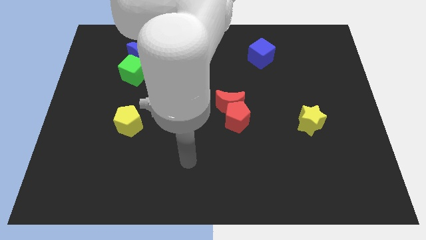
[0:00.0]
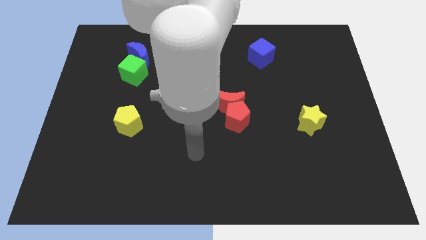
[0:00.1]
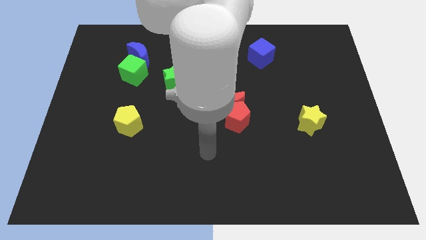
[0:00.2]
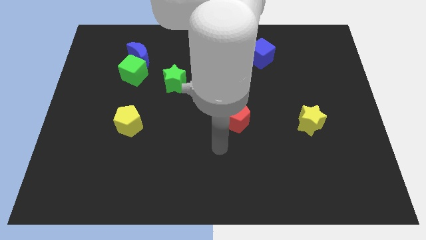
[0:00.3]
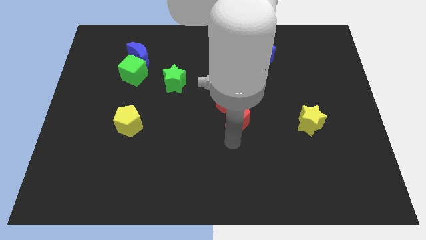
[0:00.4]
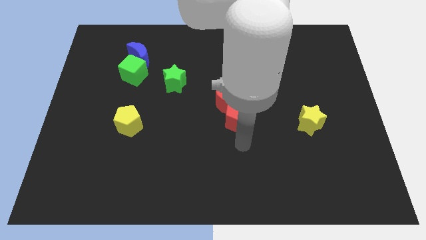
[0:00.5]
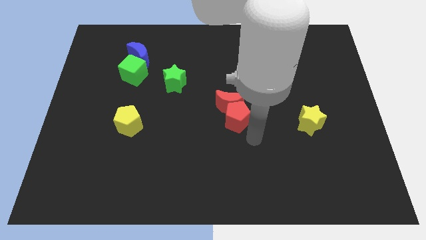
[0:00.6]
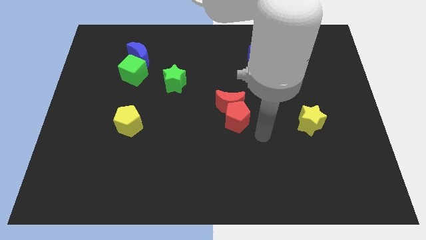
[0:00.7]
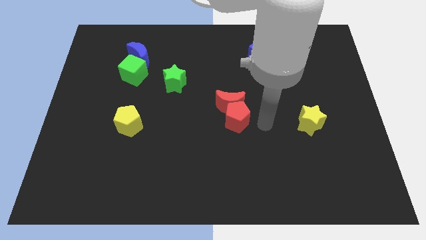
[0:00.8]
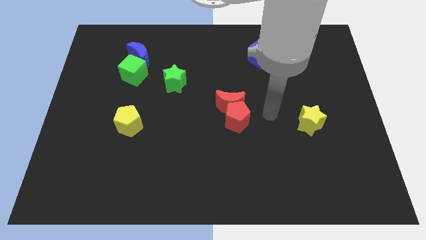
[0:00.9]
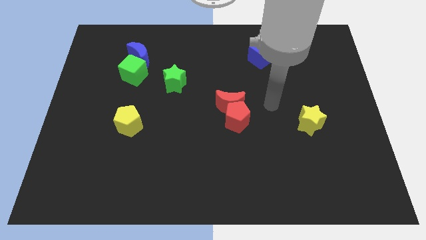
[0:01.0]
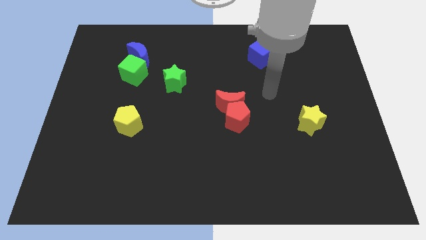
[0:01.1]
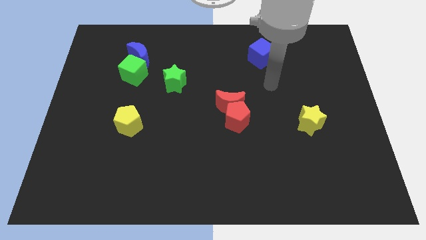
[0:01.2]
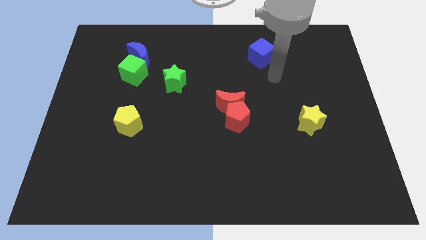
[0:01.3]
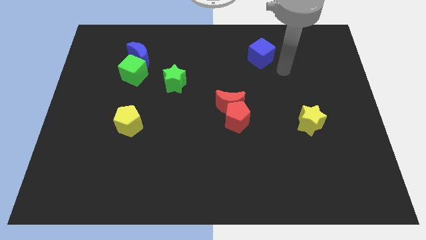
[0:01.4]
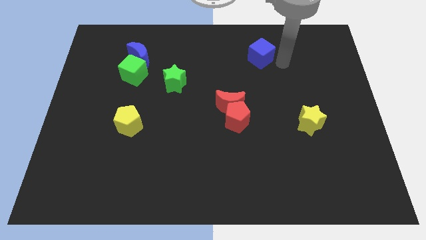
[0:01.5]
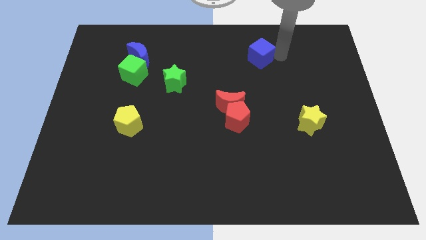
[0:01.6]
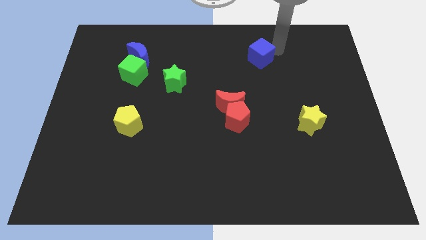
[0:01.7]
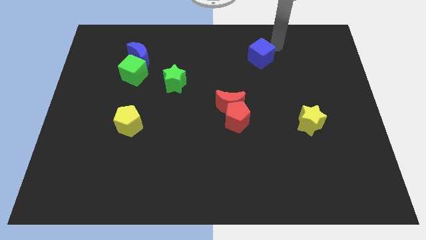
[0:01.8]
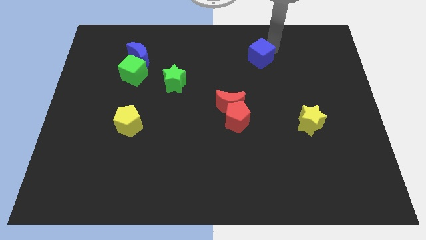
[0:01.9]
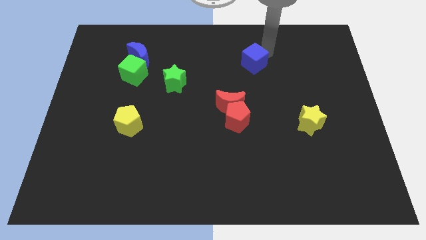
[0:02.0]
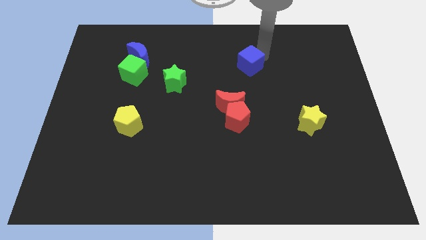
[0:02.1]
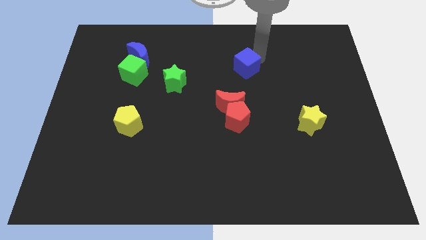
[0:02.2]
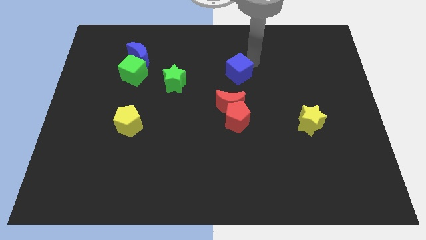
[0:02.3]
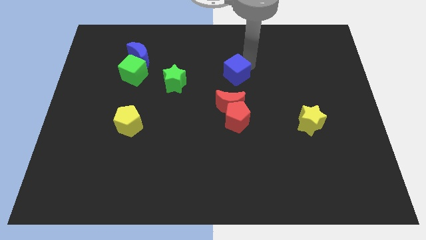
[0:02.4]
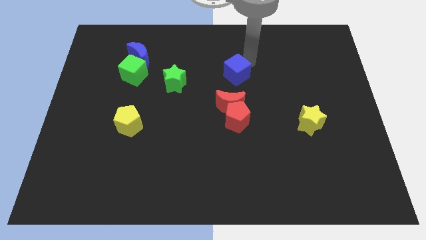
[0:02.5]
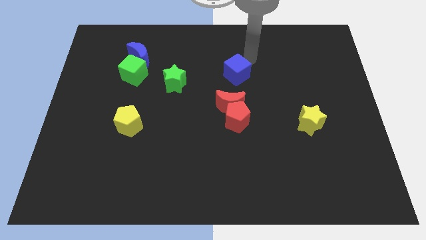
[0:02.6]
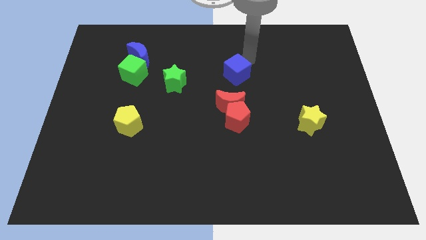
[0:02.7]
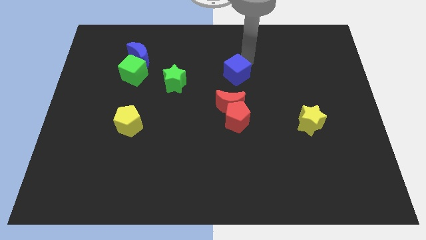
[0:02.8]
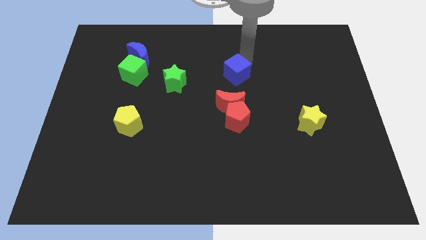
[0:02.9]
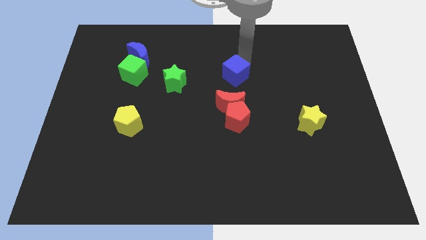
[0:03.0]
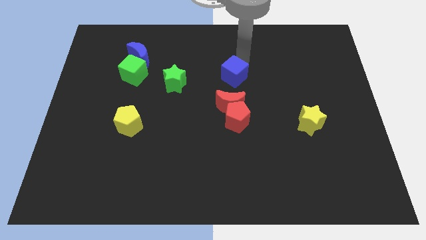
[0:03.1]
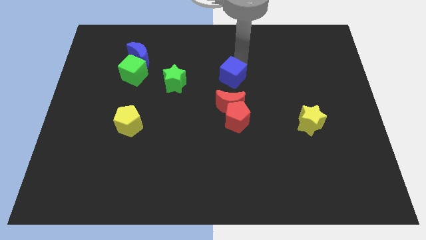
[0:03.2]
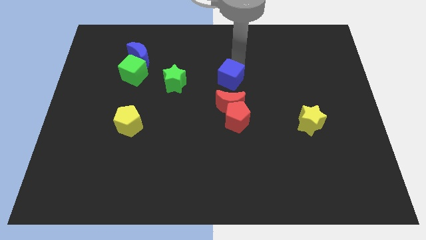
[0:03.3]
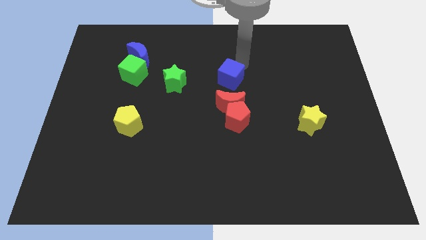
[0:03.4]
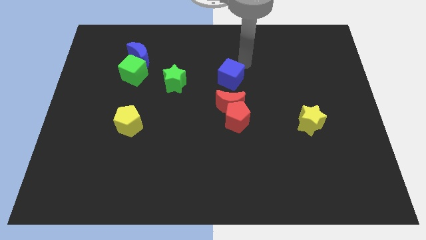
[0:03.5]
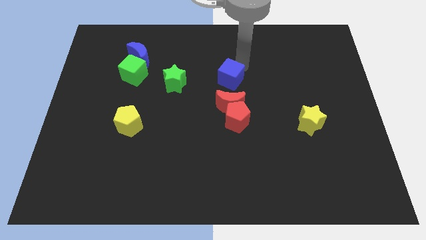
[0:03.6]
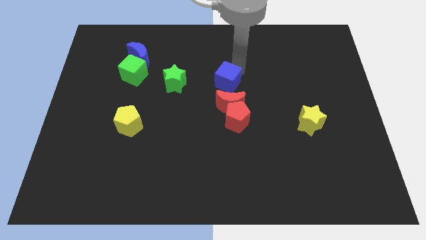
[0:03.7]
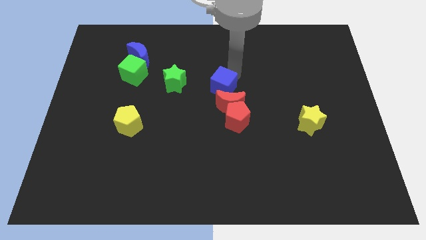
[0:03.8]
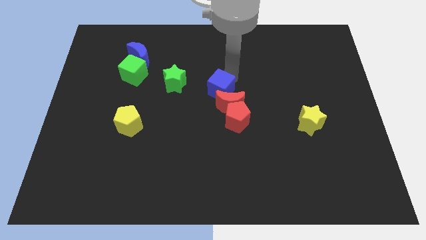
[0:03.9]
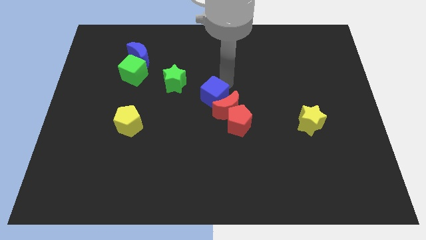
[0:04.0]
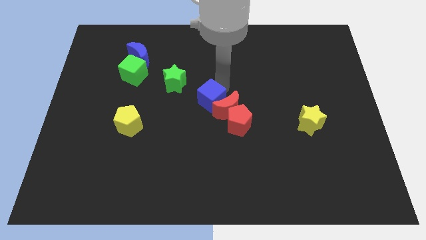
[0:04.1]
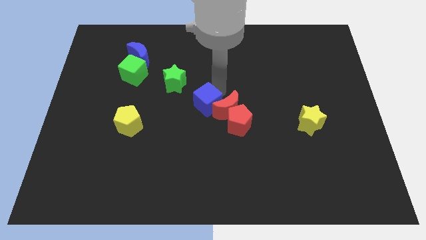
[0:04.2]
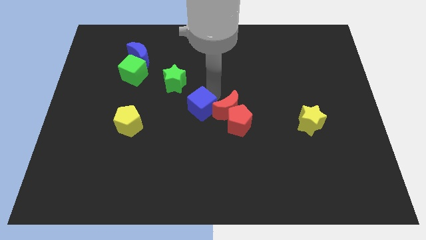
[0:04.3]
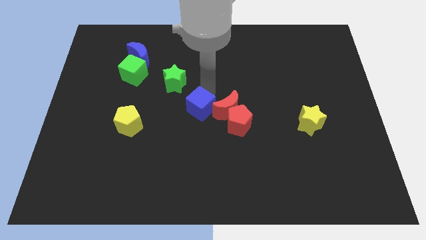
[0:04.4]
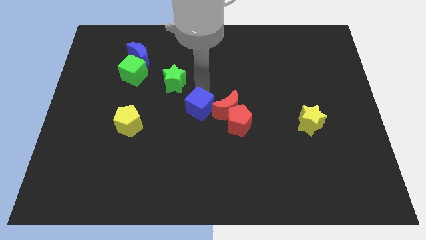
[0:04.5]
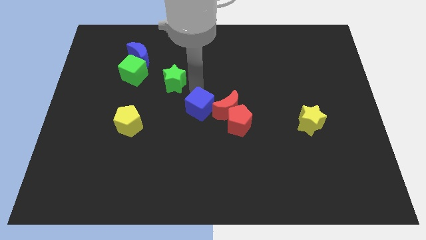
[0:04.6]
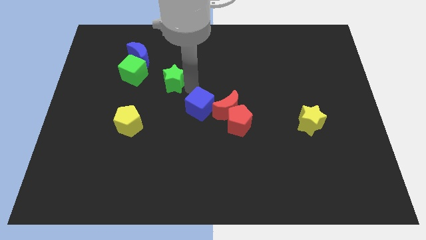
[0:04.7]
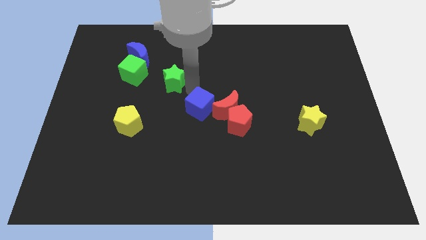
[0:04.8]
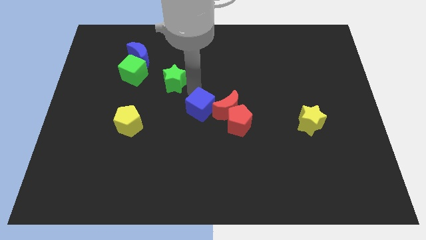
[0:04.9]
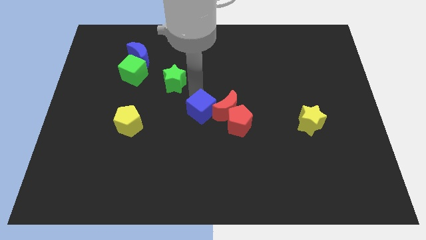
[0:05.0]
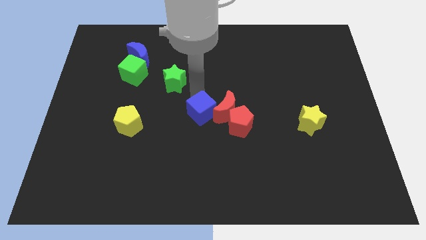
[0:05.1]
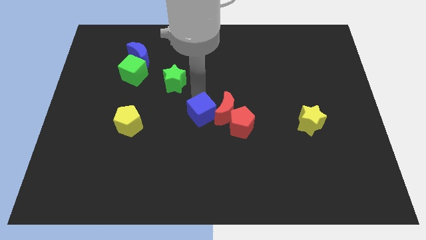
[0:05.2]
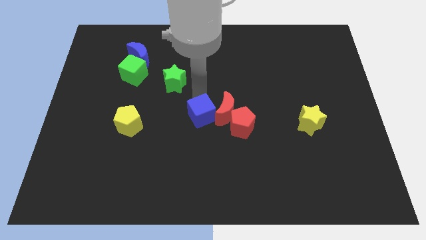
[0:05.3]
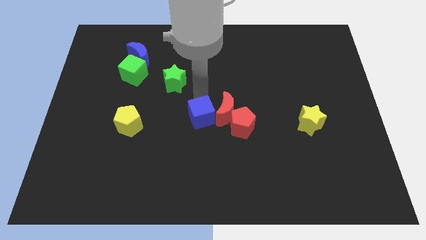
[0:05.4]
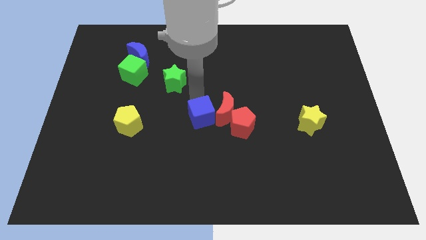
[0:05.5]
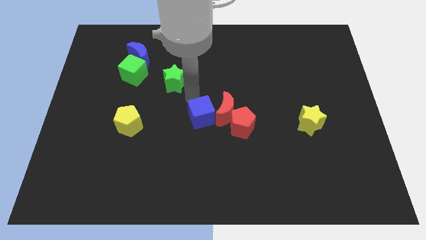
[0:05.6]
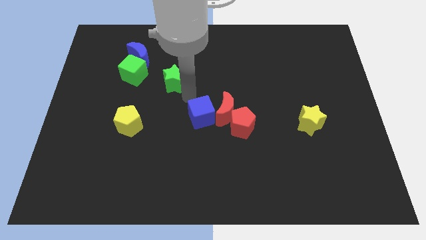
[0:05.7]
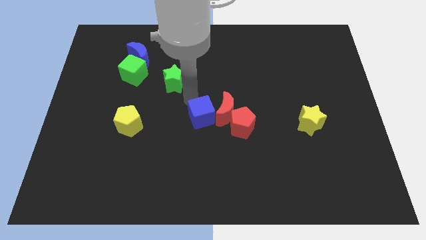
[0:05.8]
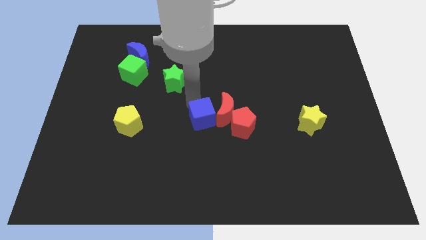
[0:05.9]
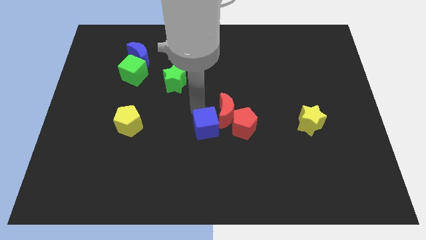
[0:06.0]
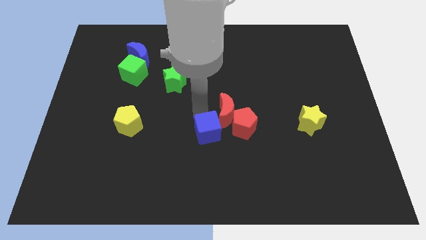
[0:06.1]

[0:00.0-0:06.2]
slide the blue cube to the bottom left of the red pentagon

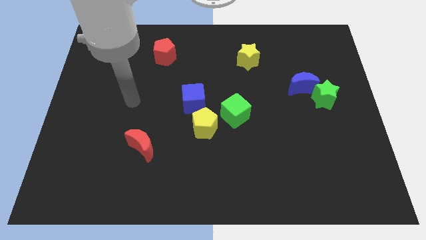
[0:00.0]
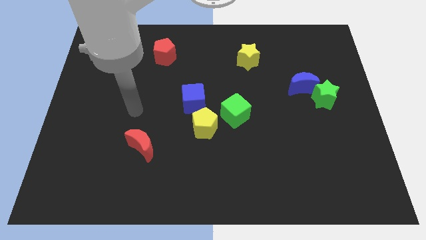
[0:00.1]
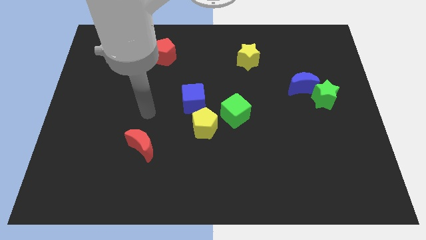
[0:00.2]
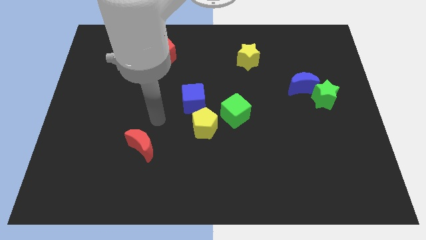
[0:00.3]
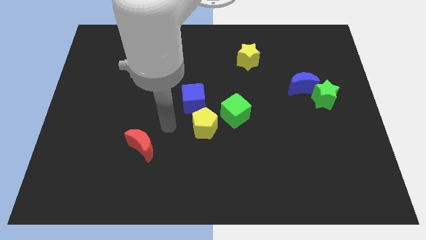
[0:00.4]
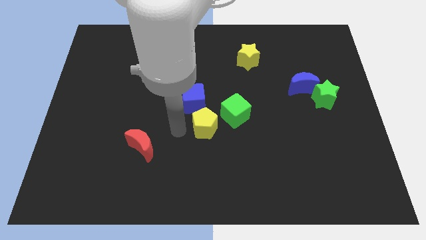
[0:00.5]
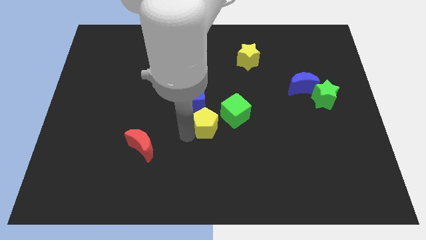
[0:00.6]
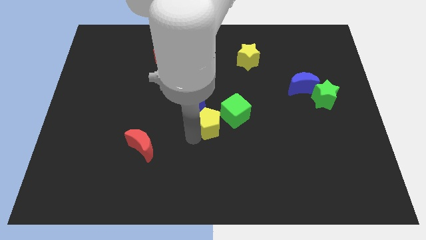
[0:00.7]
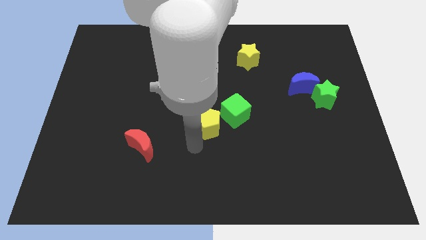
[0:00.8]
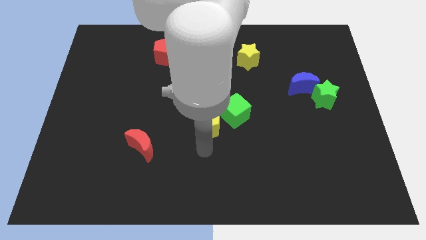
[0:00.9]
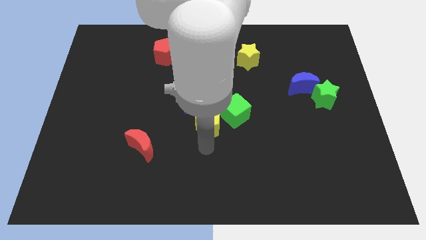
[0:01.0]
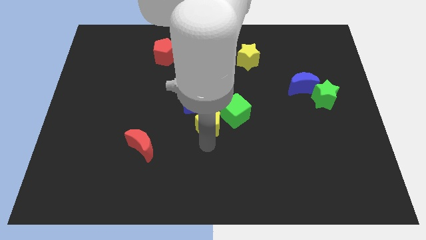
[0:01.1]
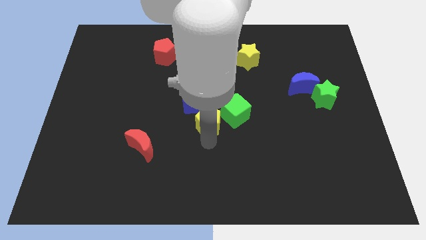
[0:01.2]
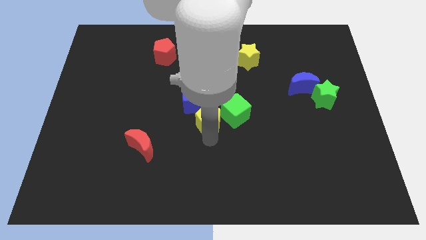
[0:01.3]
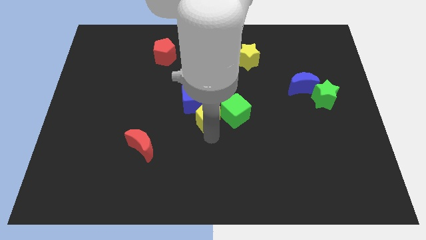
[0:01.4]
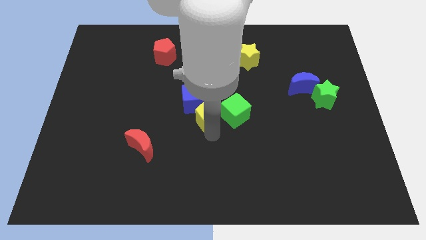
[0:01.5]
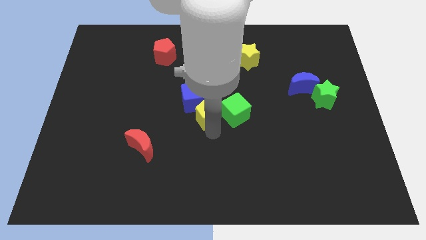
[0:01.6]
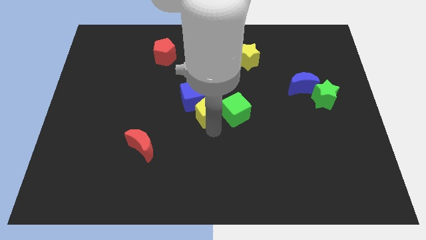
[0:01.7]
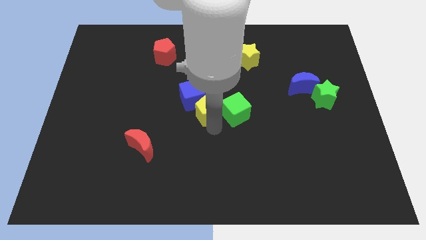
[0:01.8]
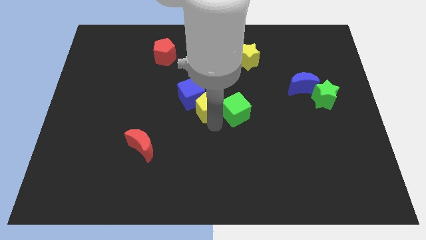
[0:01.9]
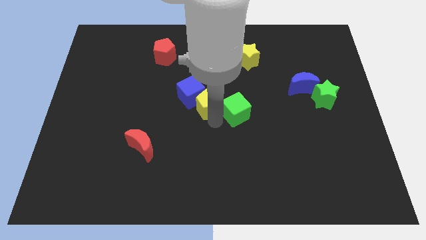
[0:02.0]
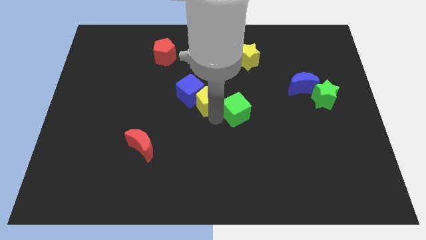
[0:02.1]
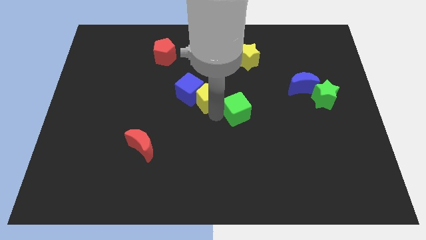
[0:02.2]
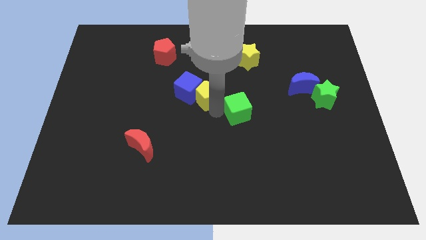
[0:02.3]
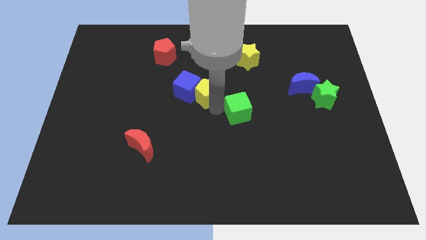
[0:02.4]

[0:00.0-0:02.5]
put the yellow pentagon to the top right of the blue cube
